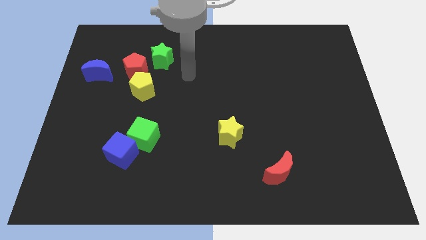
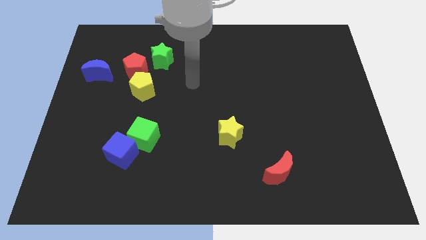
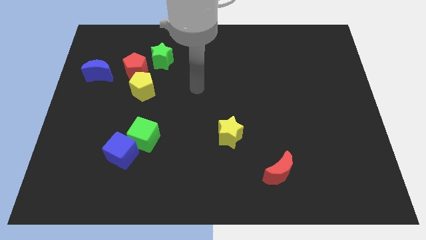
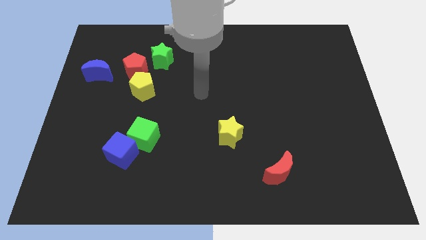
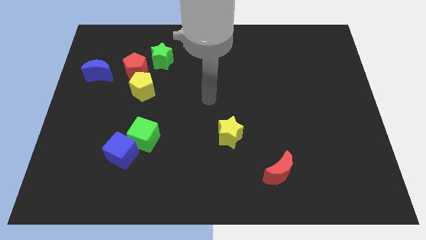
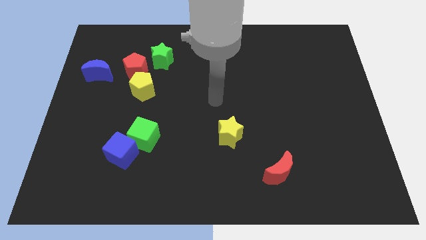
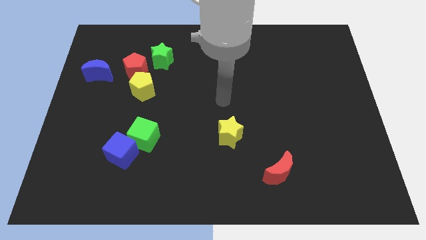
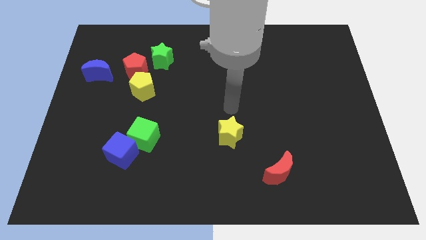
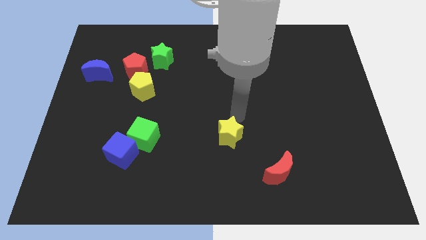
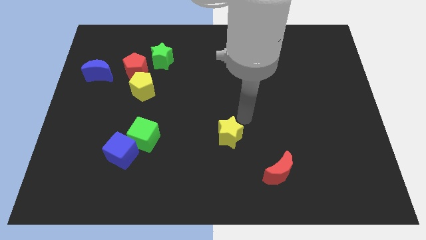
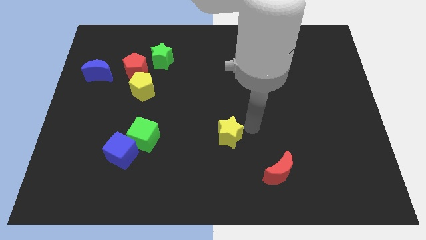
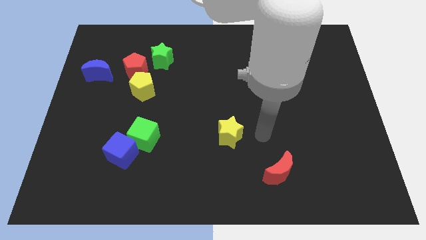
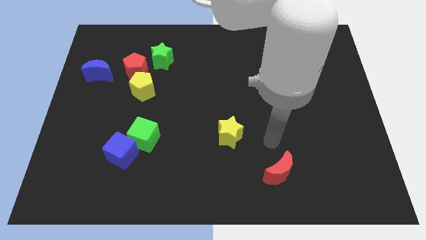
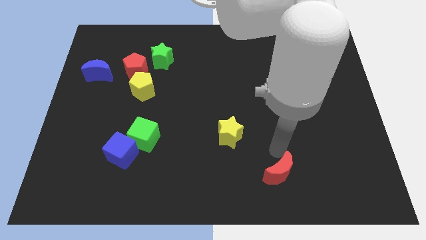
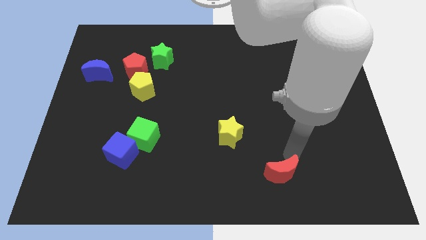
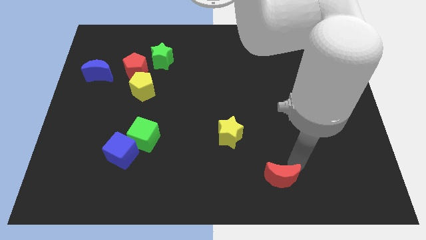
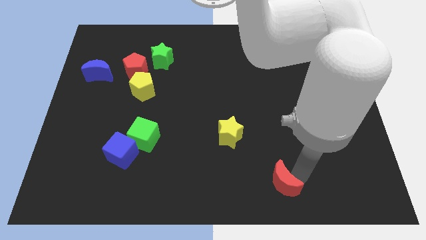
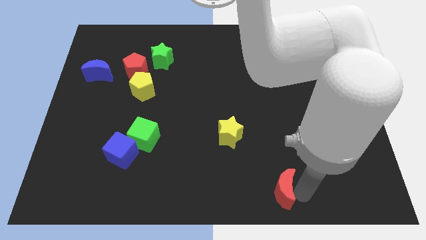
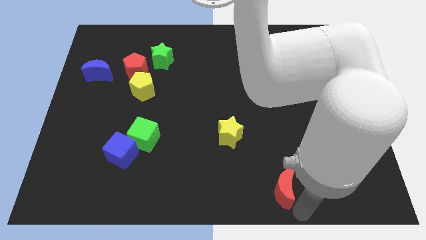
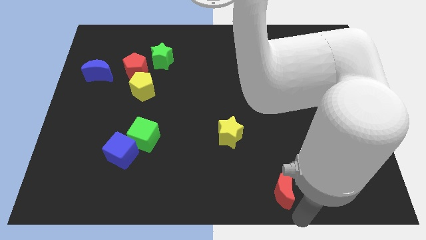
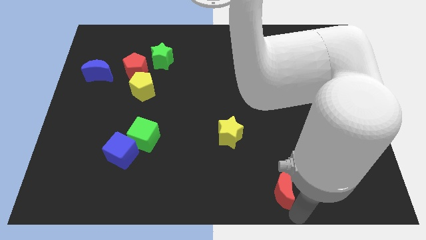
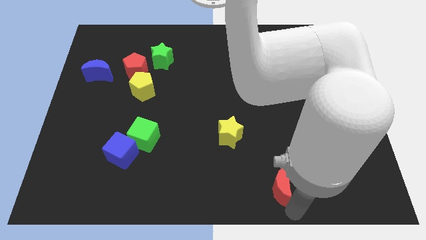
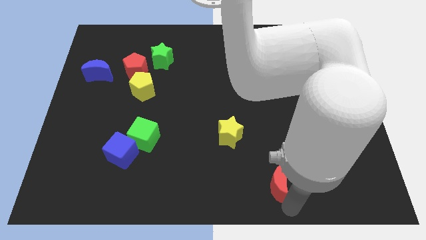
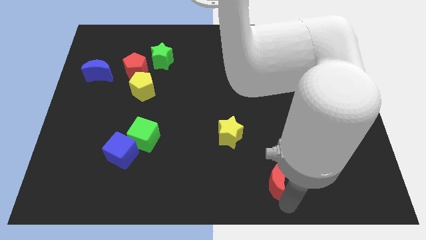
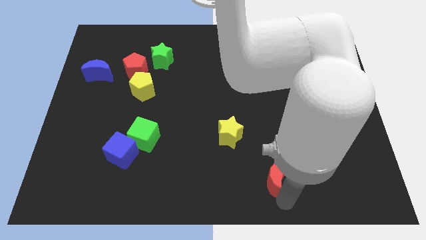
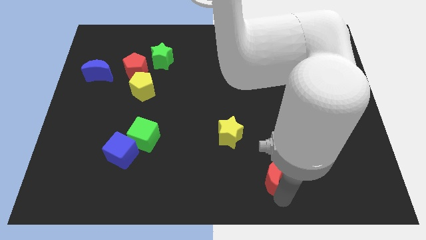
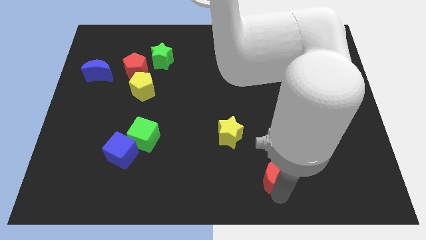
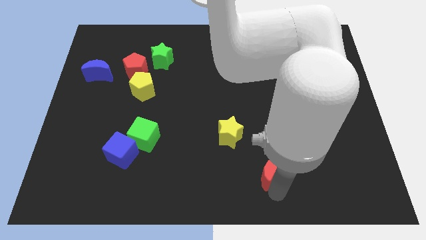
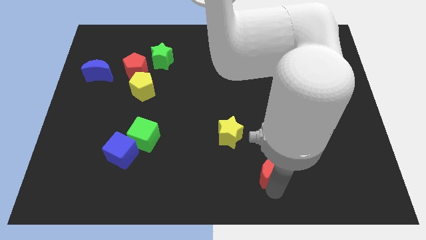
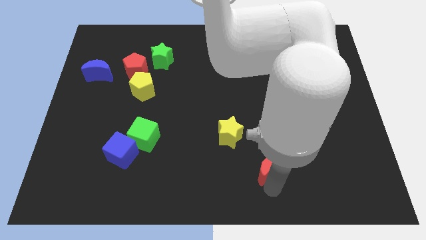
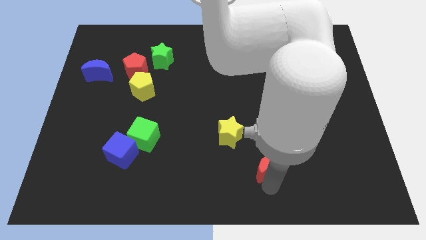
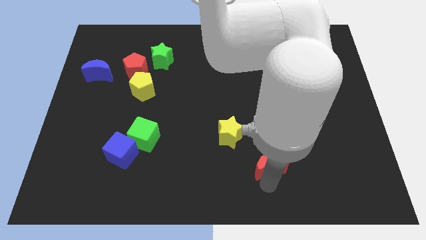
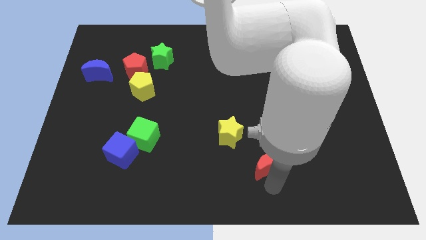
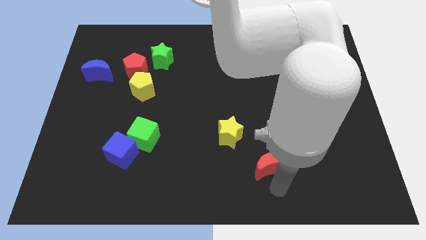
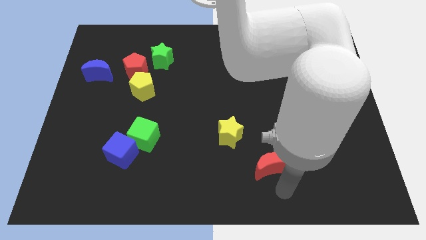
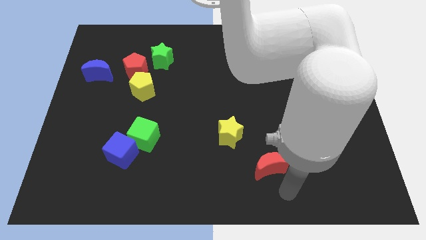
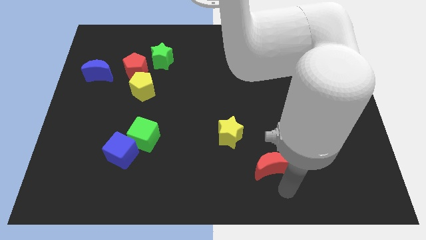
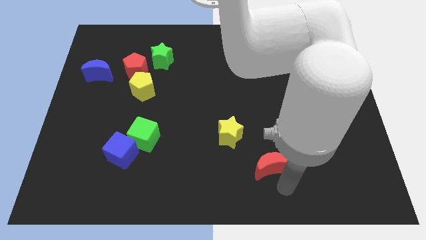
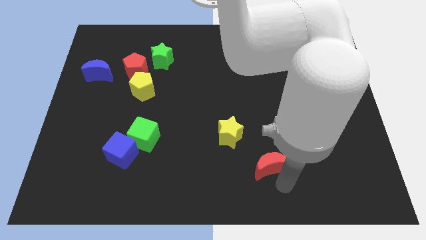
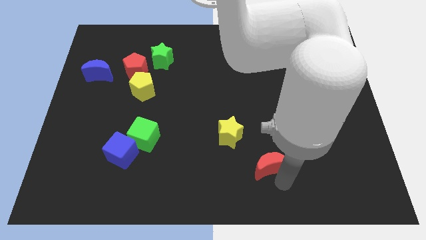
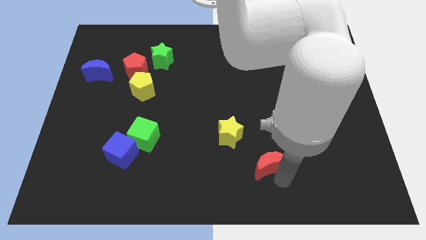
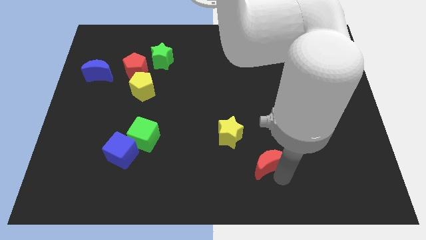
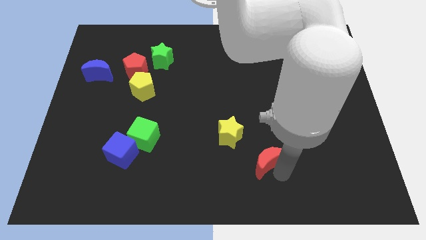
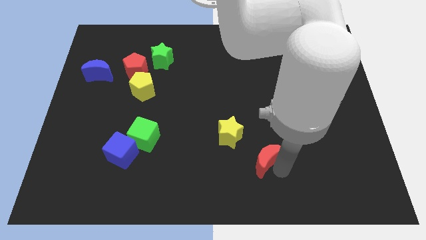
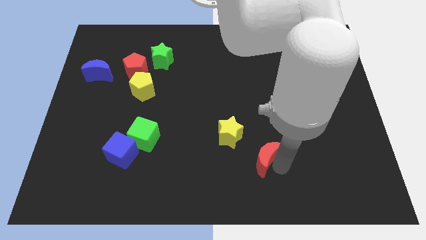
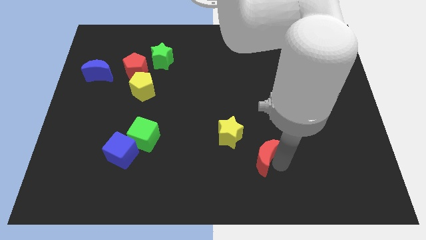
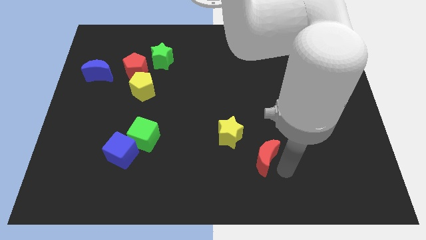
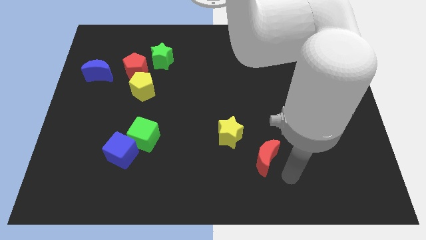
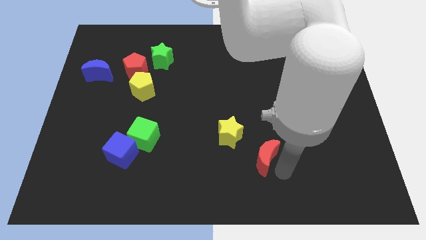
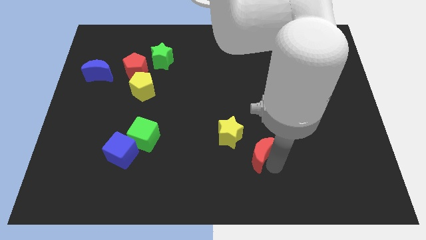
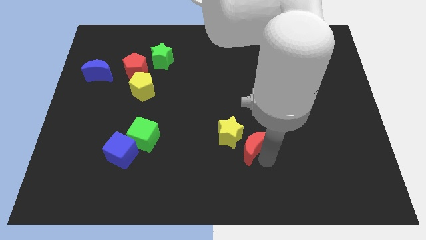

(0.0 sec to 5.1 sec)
put the red moon to the yellow star

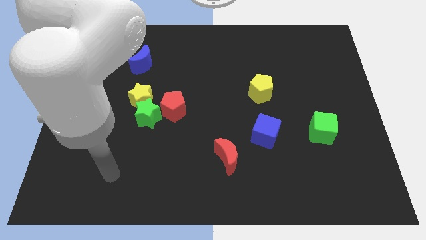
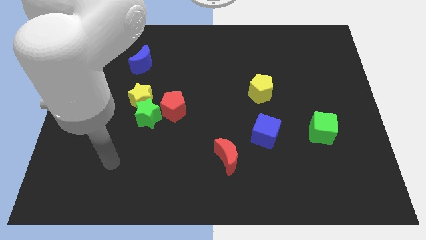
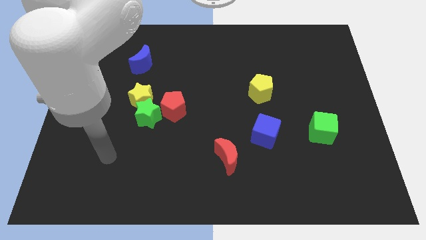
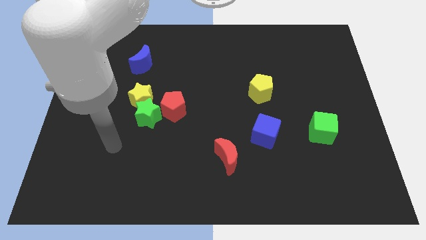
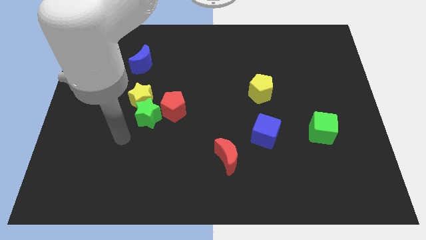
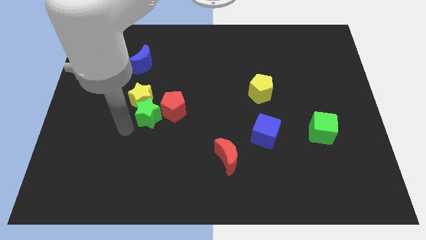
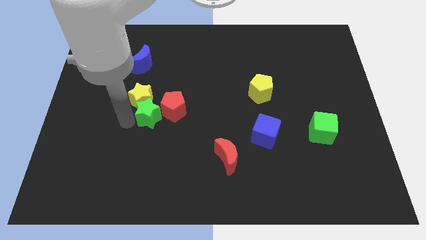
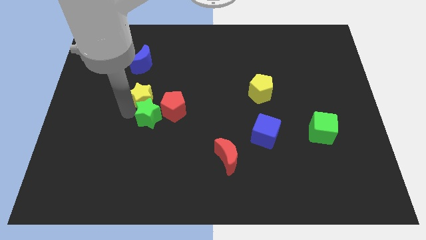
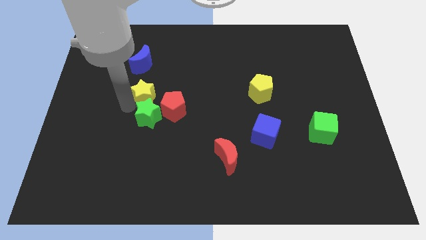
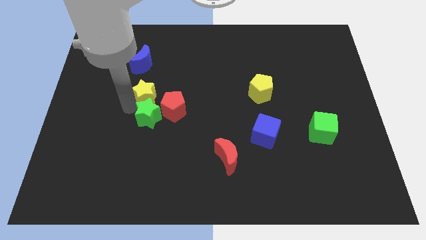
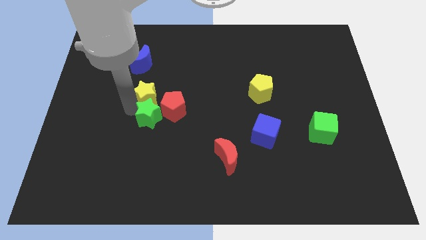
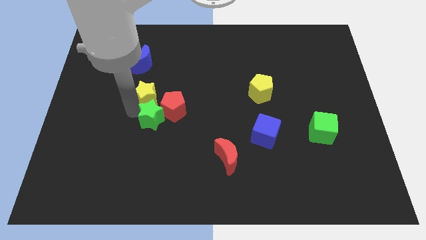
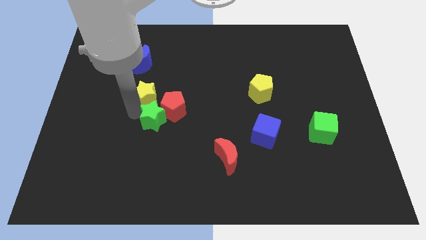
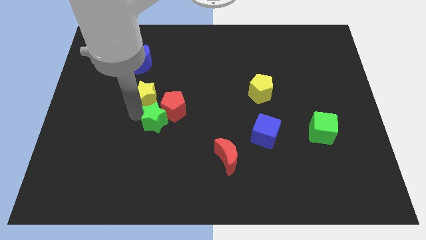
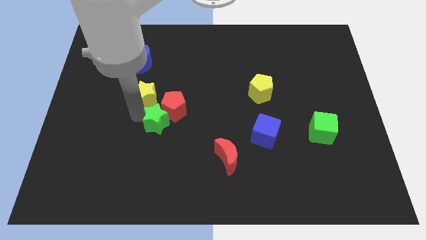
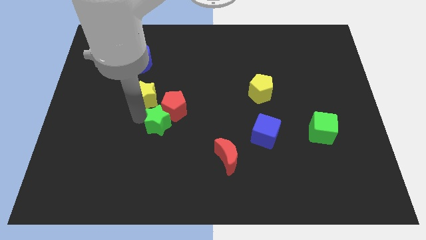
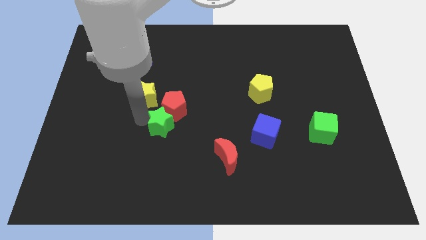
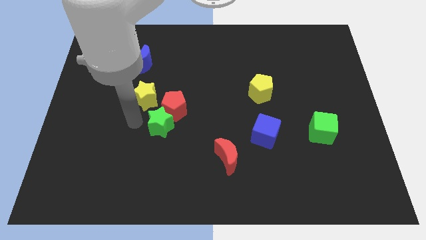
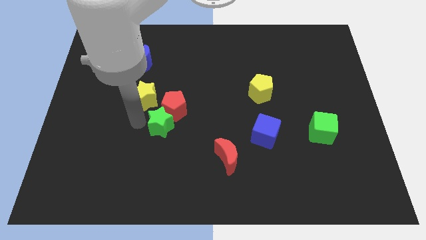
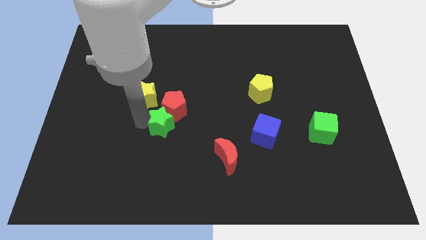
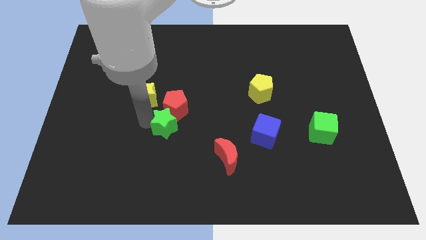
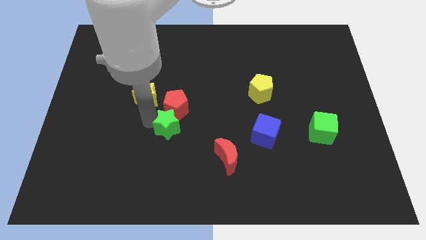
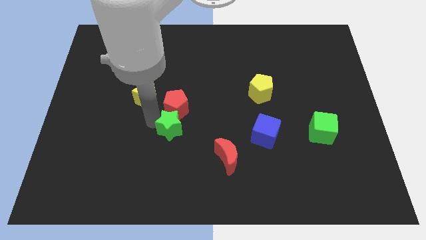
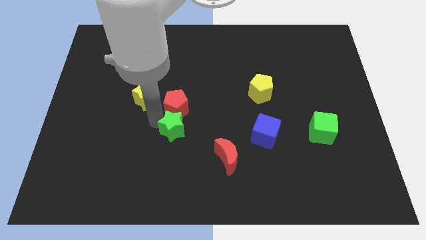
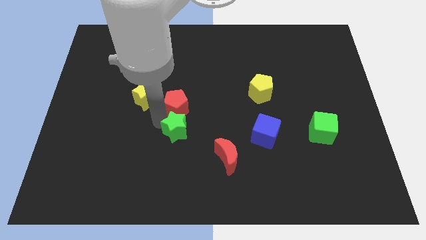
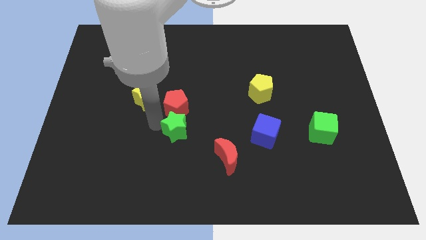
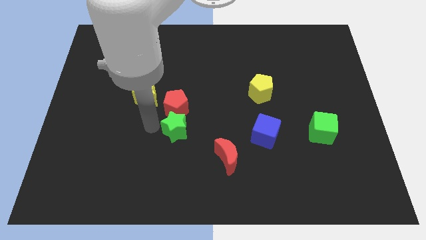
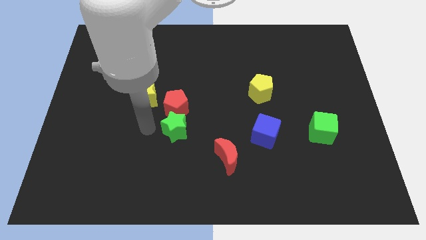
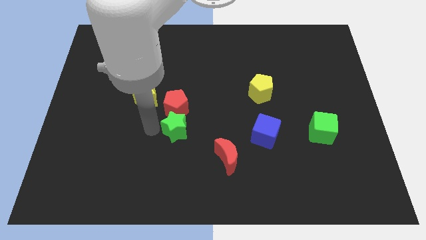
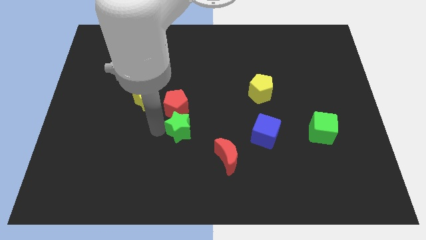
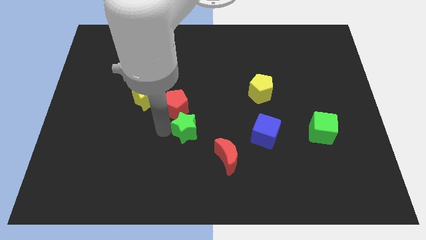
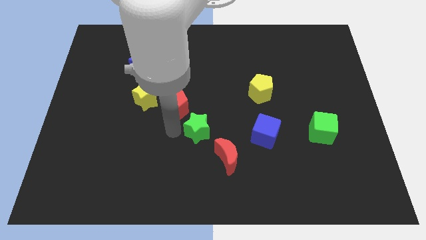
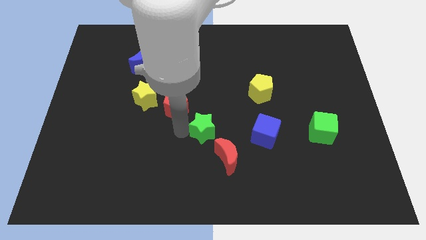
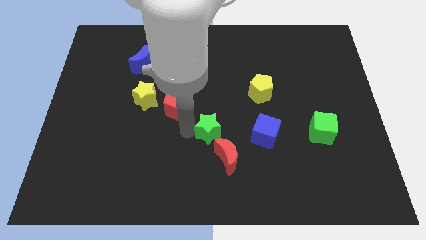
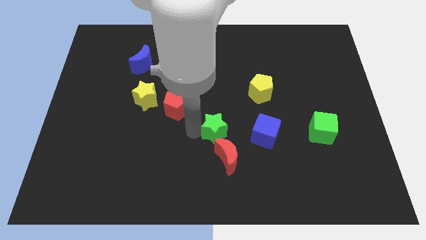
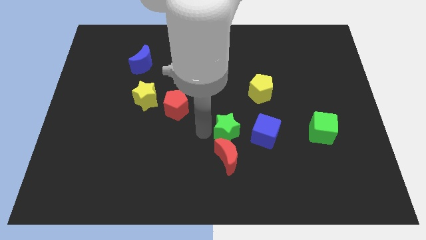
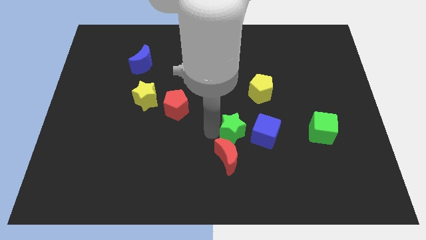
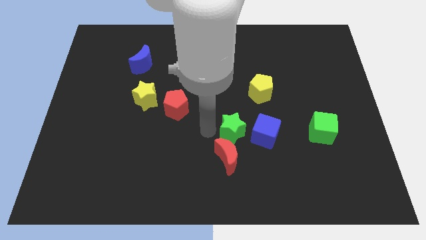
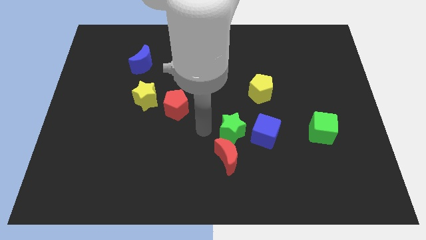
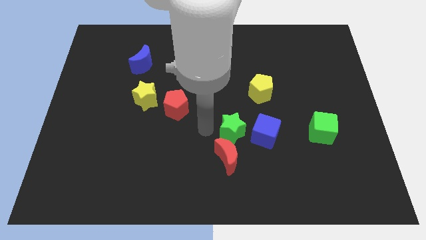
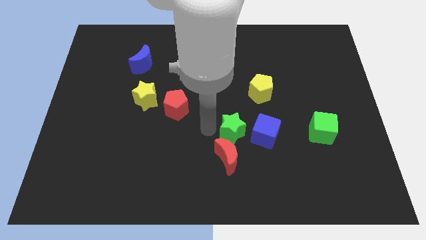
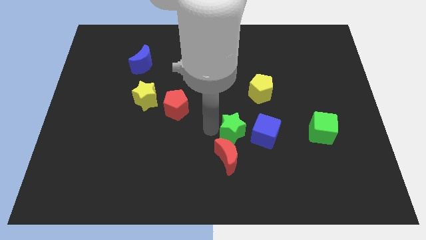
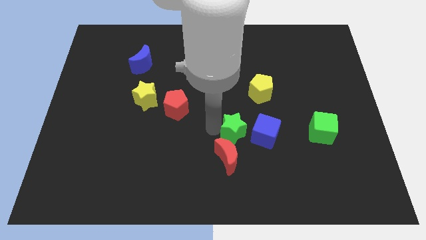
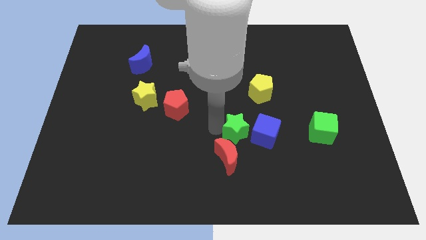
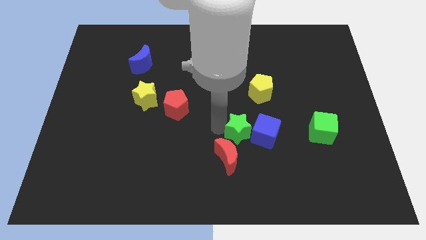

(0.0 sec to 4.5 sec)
slide the green star close to the blue cube
